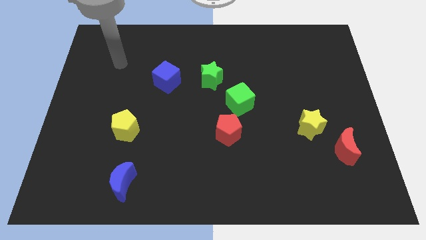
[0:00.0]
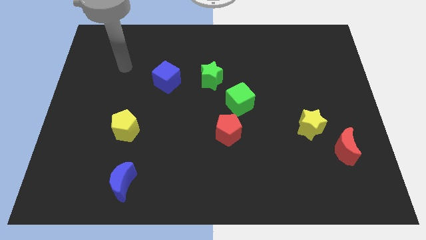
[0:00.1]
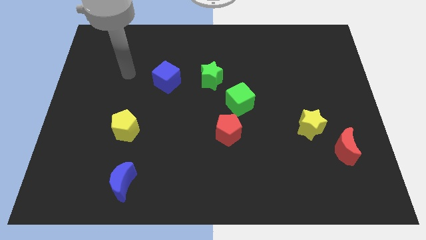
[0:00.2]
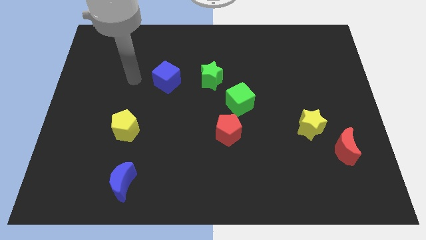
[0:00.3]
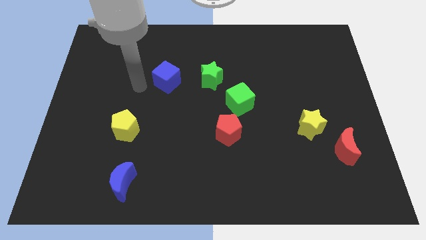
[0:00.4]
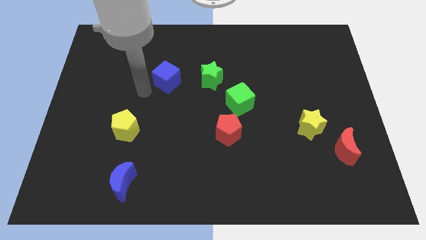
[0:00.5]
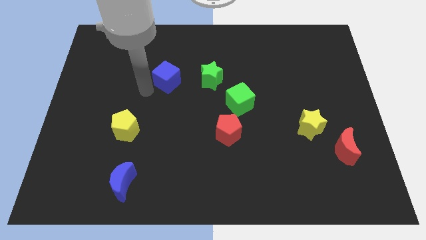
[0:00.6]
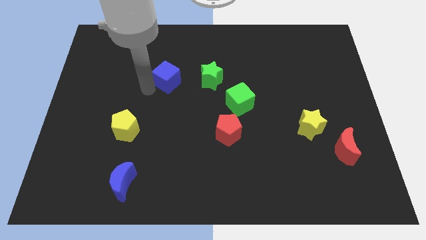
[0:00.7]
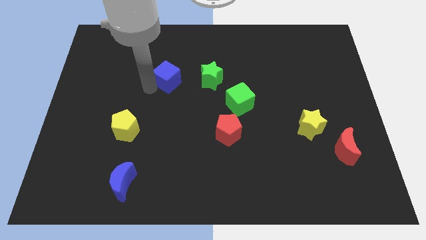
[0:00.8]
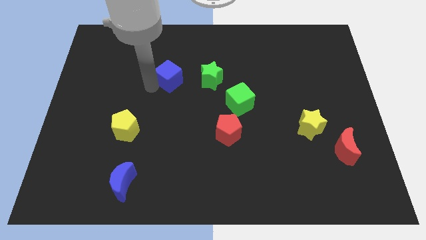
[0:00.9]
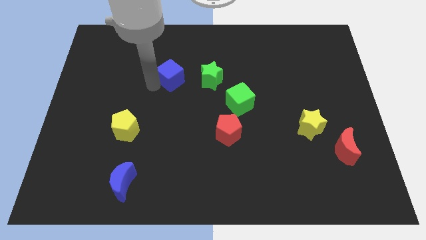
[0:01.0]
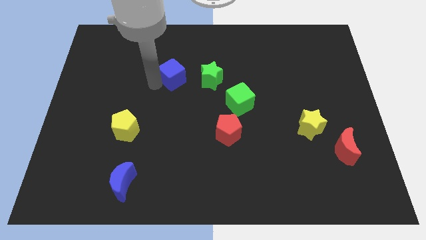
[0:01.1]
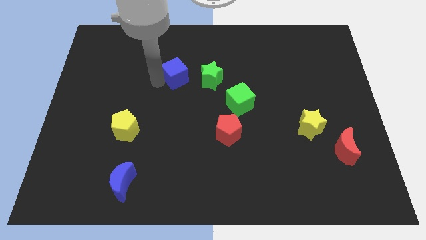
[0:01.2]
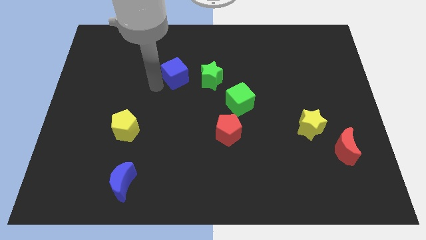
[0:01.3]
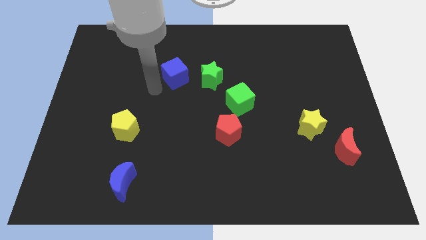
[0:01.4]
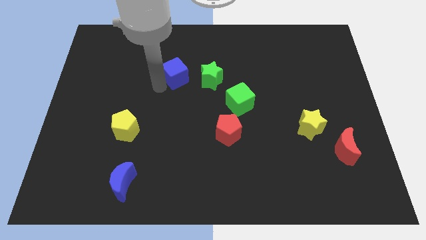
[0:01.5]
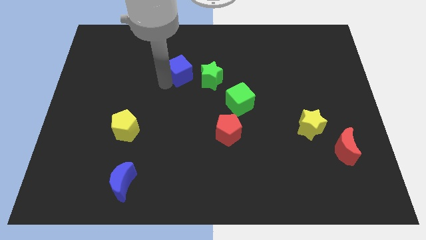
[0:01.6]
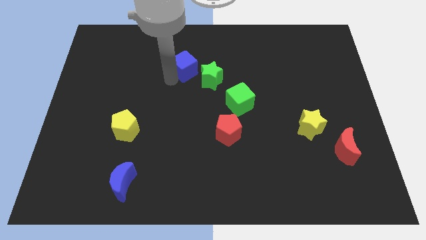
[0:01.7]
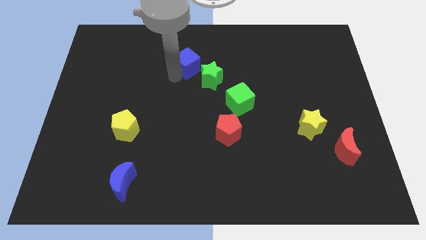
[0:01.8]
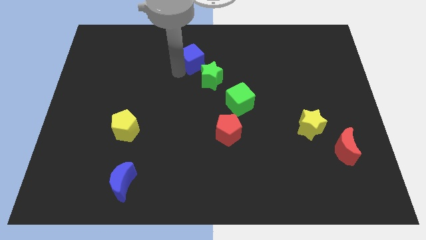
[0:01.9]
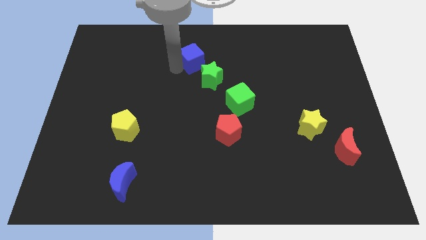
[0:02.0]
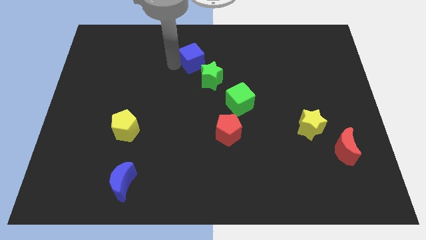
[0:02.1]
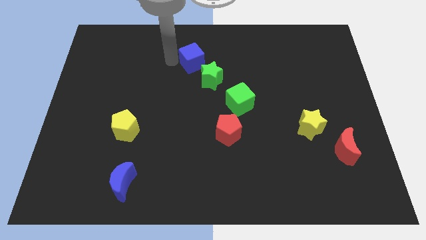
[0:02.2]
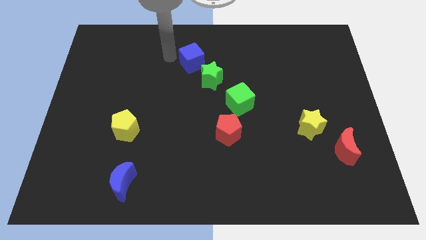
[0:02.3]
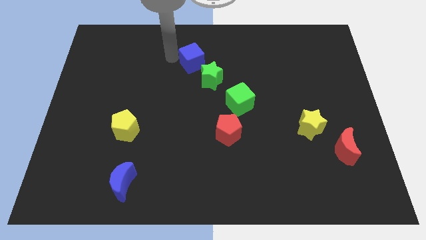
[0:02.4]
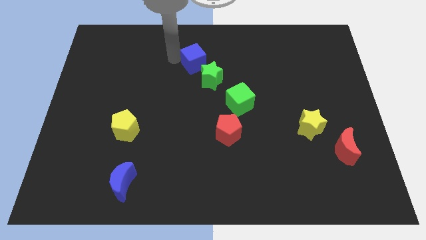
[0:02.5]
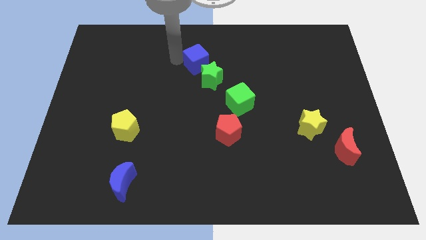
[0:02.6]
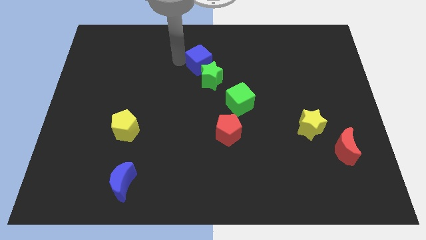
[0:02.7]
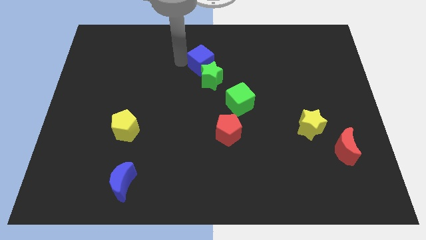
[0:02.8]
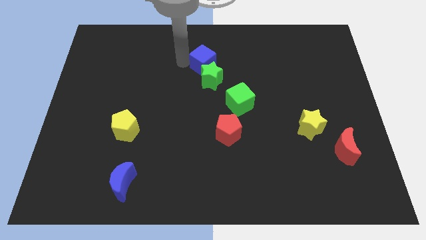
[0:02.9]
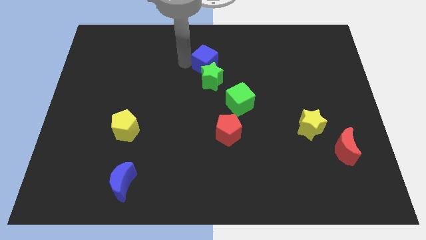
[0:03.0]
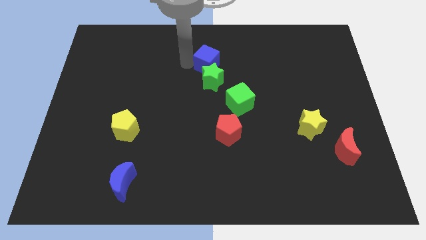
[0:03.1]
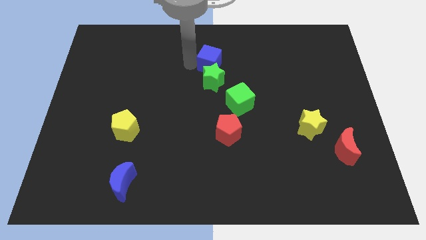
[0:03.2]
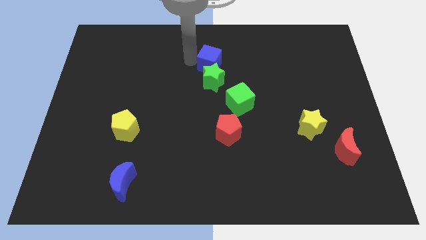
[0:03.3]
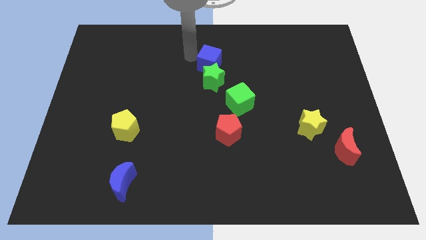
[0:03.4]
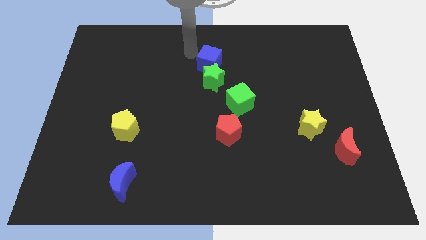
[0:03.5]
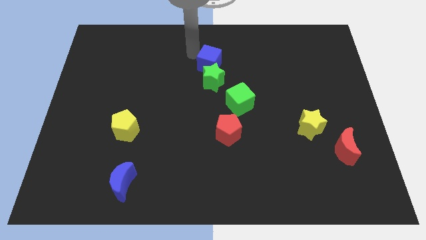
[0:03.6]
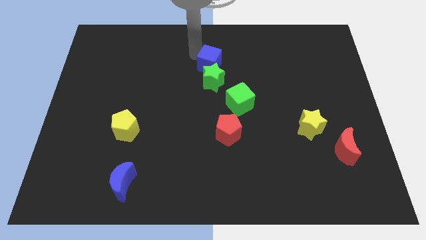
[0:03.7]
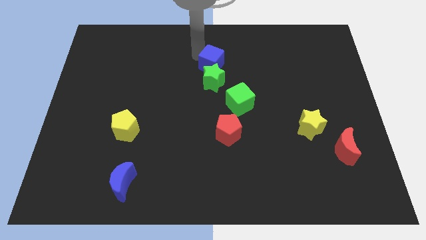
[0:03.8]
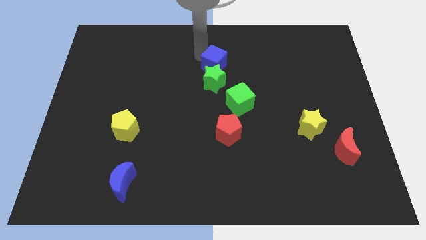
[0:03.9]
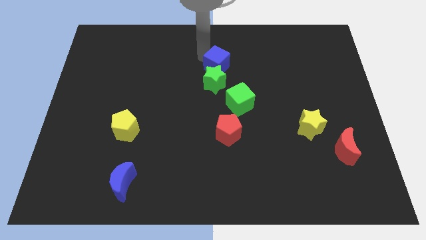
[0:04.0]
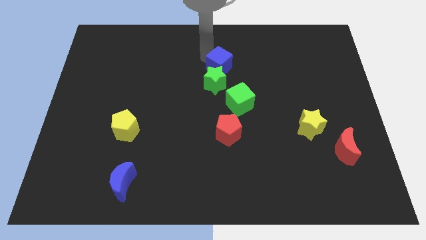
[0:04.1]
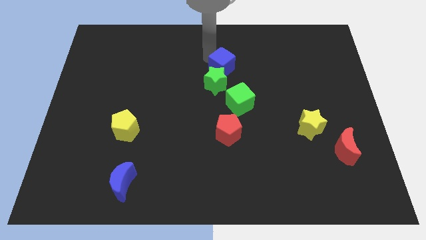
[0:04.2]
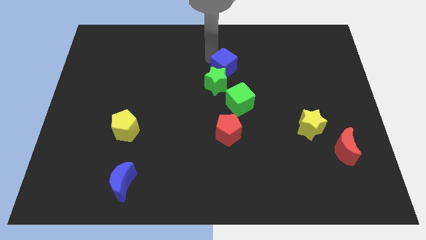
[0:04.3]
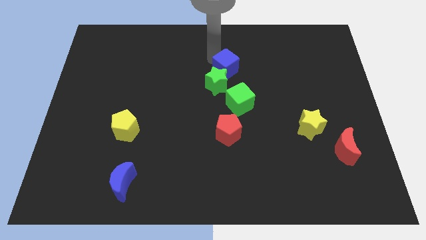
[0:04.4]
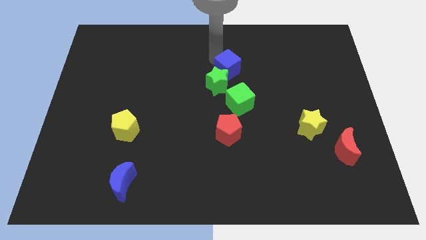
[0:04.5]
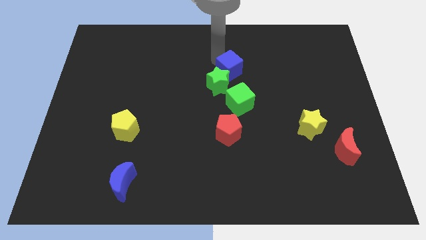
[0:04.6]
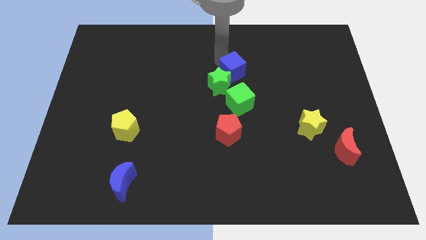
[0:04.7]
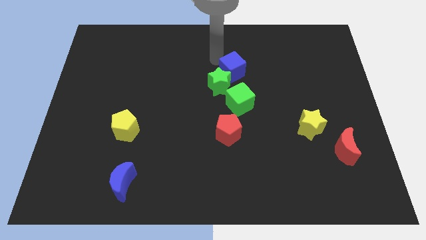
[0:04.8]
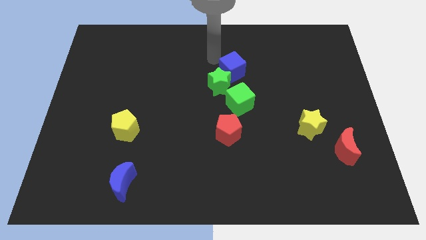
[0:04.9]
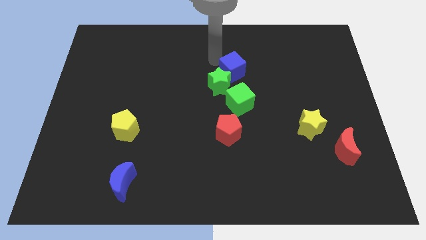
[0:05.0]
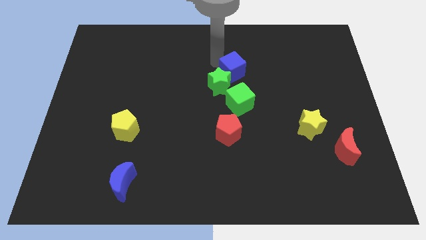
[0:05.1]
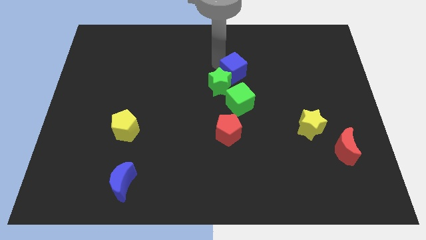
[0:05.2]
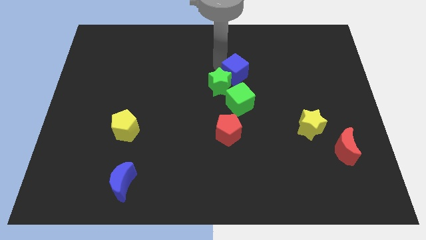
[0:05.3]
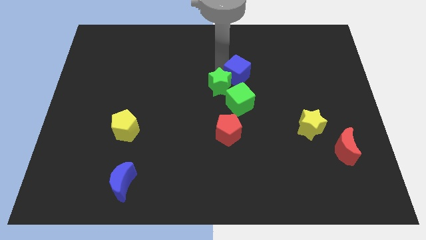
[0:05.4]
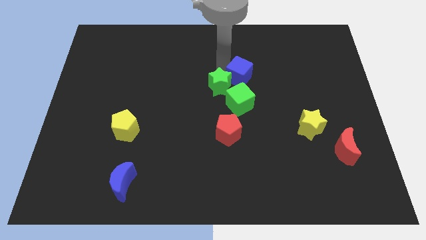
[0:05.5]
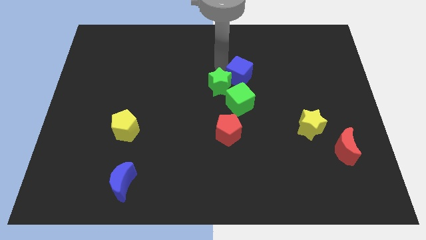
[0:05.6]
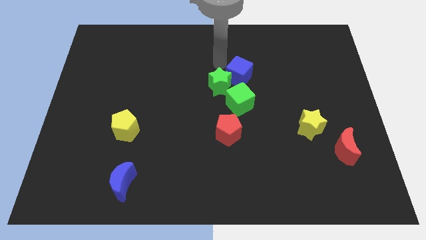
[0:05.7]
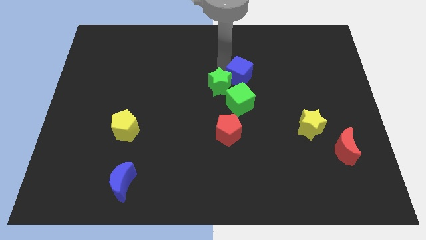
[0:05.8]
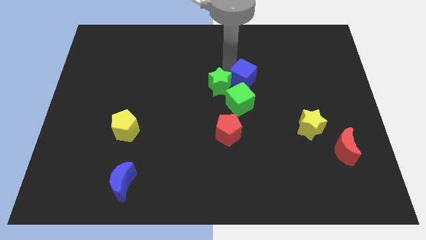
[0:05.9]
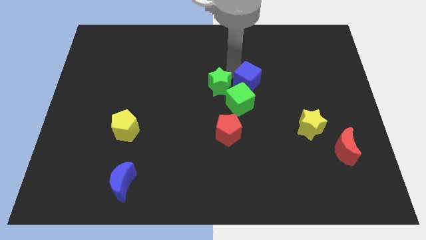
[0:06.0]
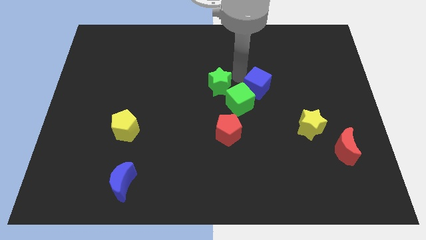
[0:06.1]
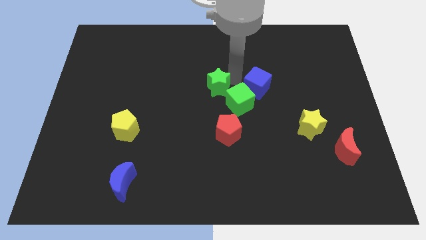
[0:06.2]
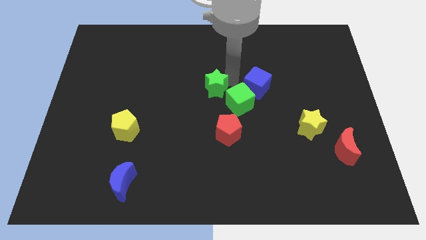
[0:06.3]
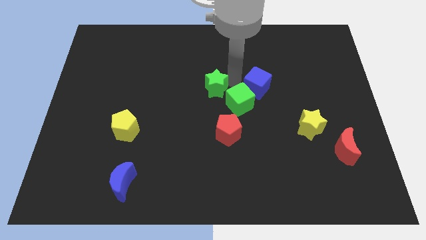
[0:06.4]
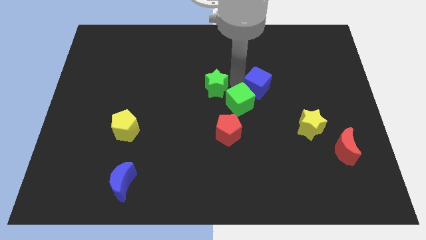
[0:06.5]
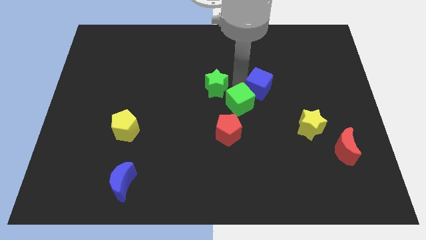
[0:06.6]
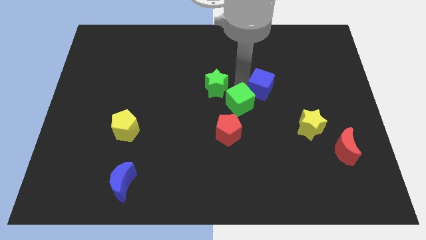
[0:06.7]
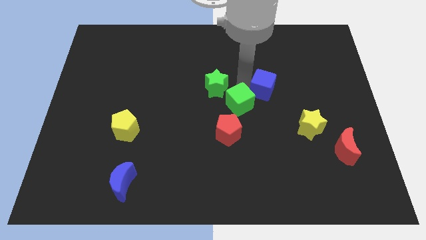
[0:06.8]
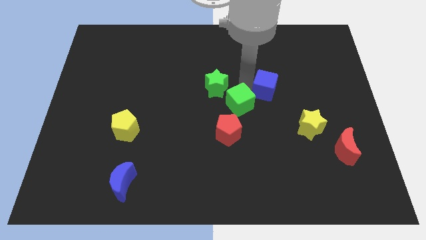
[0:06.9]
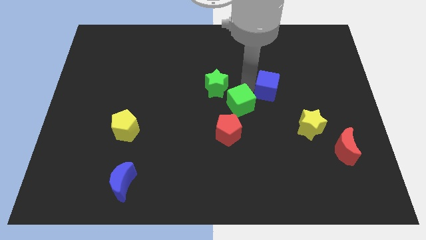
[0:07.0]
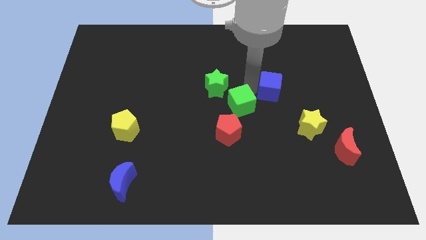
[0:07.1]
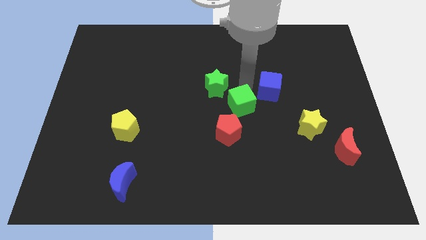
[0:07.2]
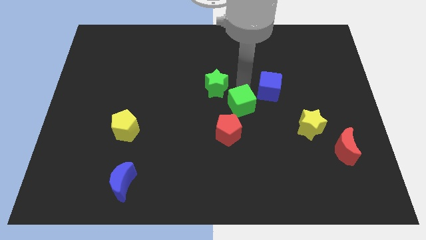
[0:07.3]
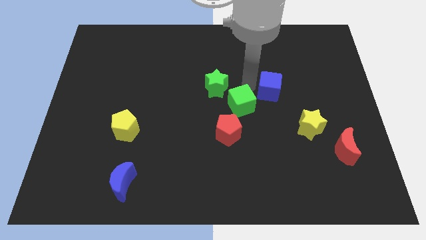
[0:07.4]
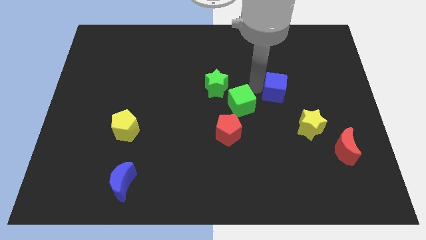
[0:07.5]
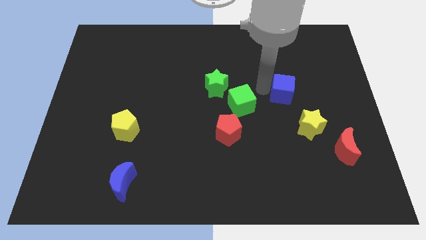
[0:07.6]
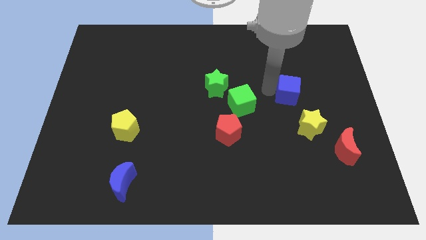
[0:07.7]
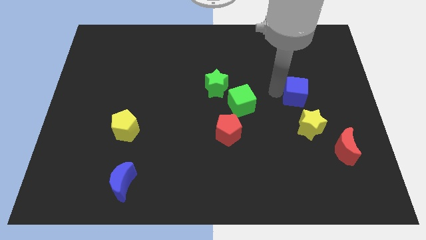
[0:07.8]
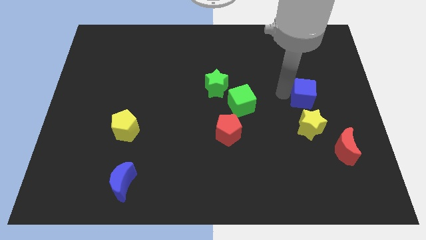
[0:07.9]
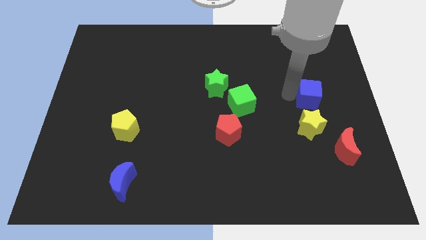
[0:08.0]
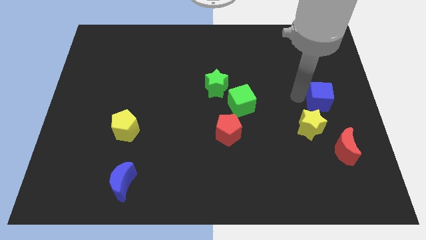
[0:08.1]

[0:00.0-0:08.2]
move the blue cube to the center right

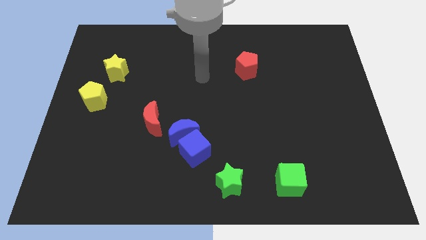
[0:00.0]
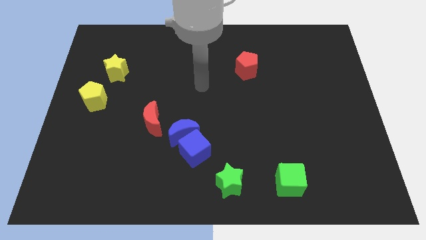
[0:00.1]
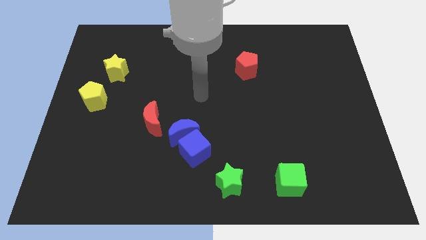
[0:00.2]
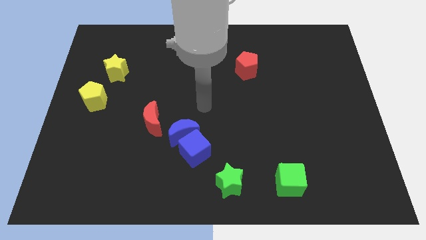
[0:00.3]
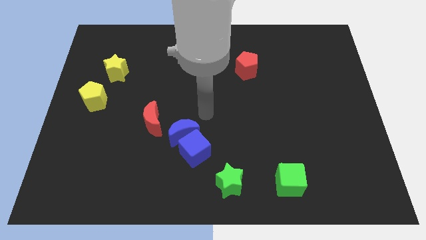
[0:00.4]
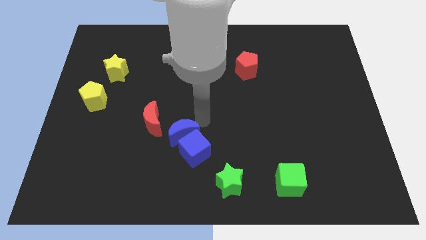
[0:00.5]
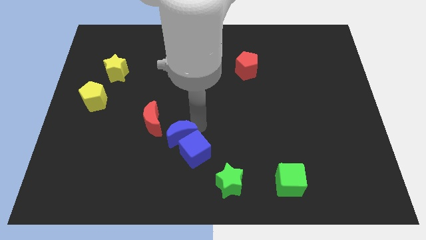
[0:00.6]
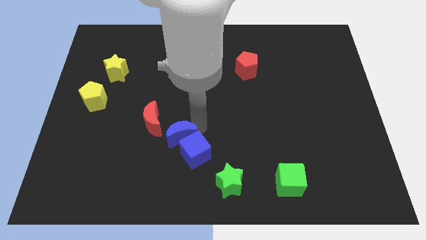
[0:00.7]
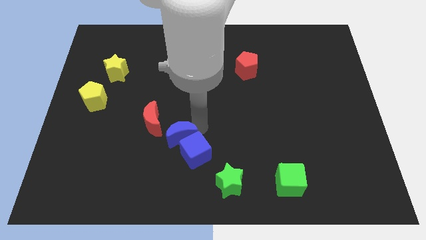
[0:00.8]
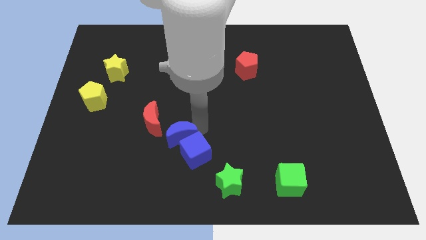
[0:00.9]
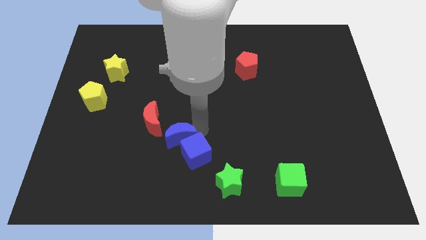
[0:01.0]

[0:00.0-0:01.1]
move the blue cube to the bottom
